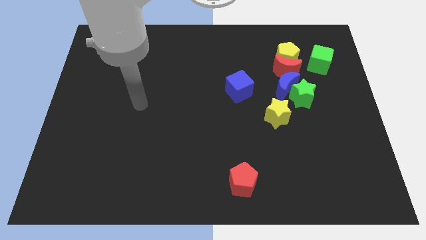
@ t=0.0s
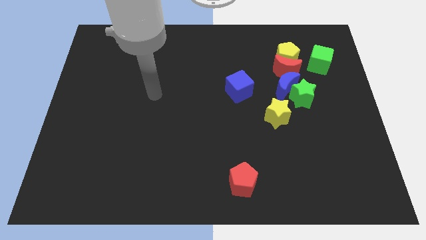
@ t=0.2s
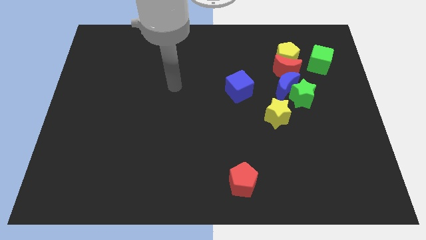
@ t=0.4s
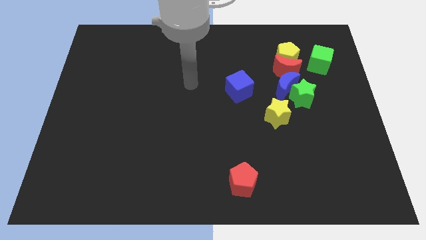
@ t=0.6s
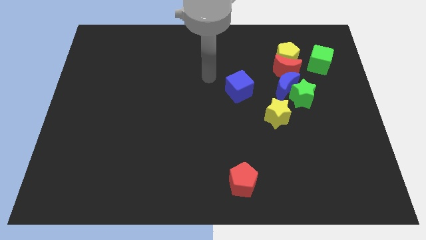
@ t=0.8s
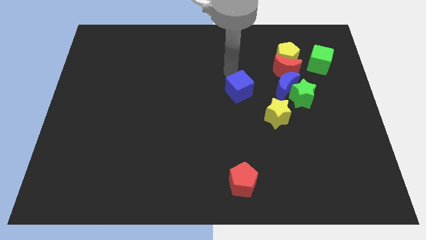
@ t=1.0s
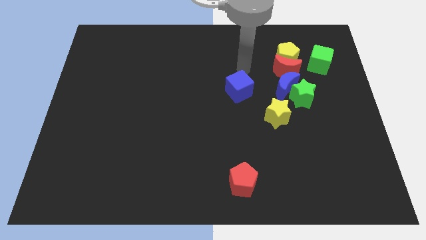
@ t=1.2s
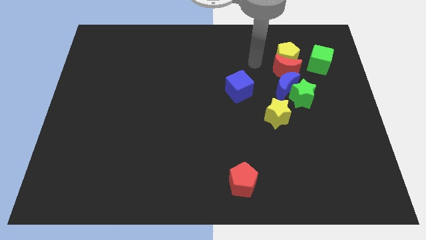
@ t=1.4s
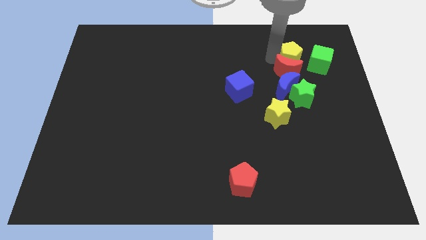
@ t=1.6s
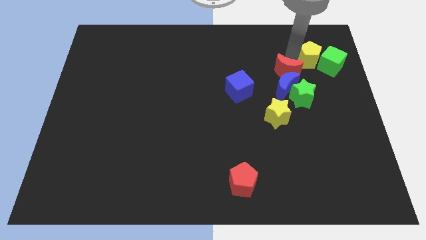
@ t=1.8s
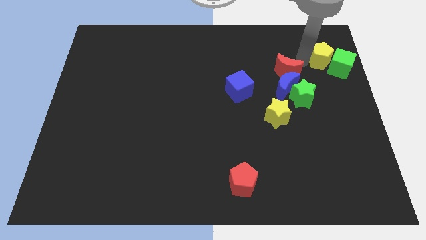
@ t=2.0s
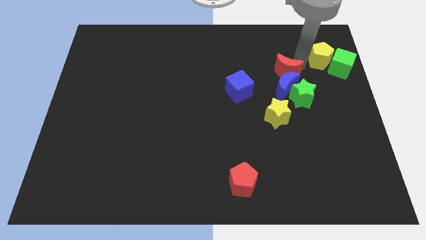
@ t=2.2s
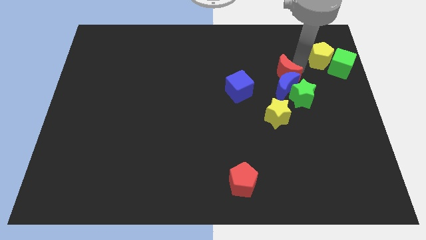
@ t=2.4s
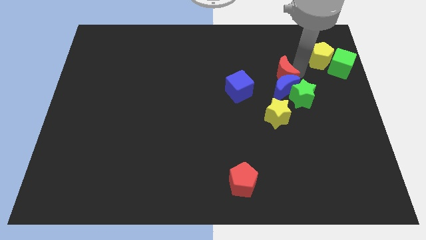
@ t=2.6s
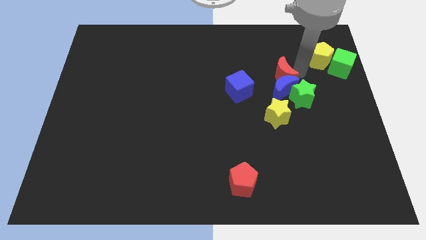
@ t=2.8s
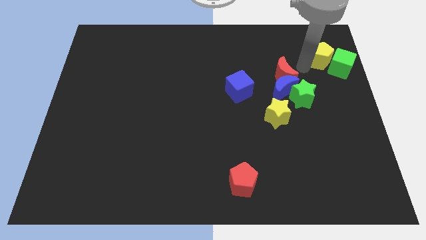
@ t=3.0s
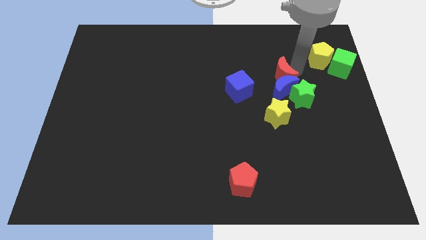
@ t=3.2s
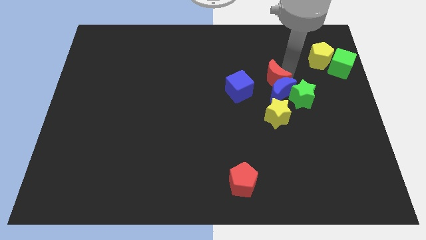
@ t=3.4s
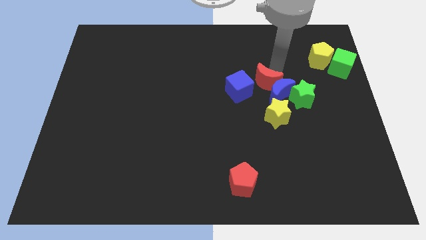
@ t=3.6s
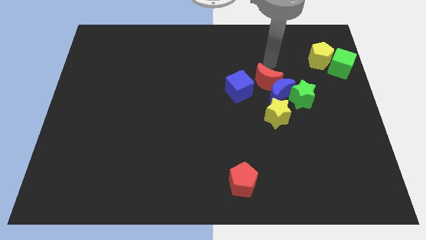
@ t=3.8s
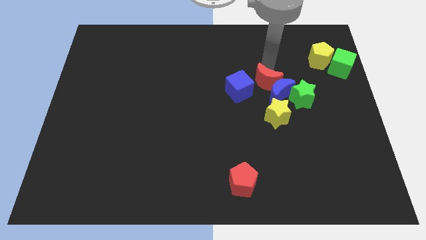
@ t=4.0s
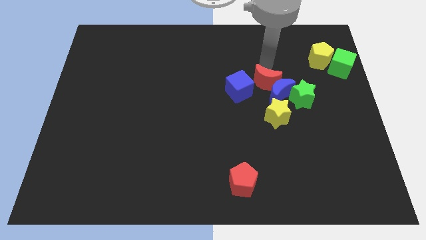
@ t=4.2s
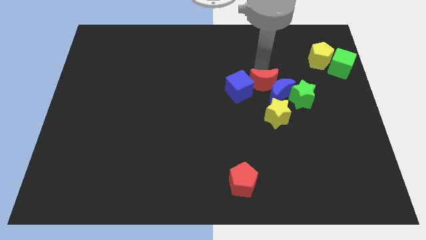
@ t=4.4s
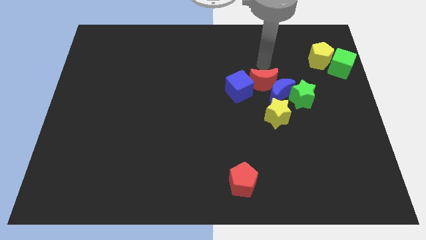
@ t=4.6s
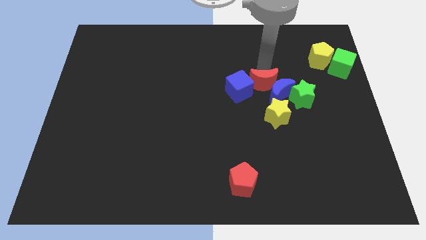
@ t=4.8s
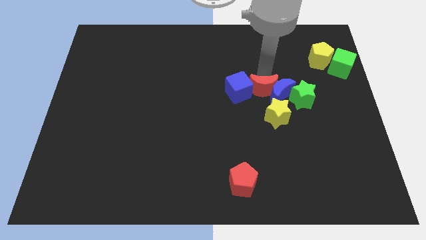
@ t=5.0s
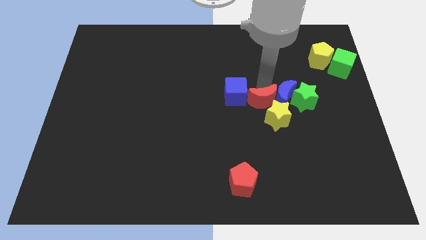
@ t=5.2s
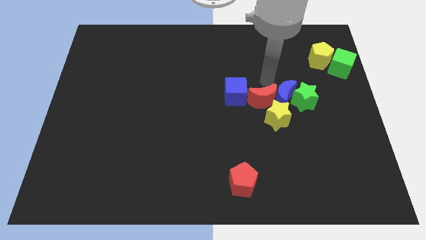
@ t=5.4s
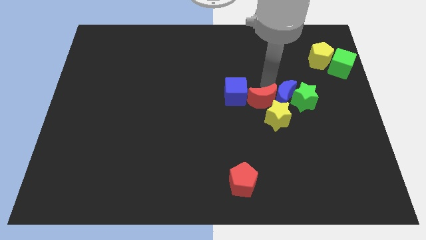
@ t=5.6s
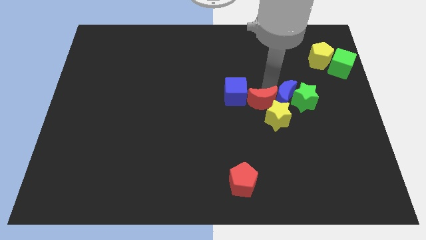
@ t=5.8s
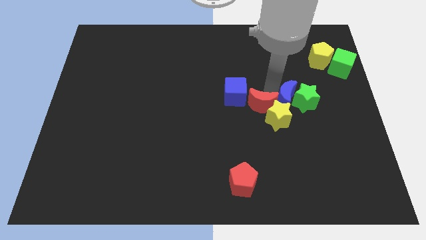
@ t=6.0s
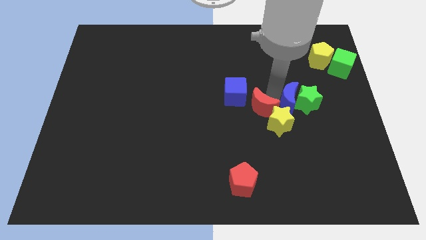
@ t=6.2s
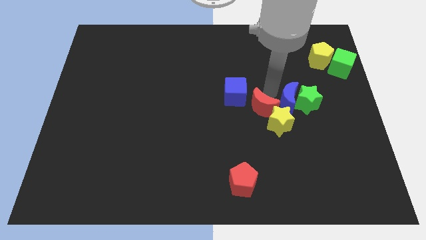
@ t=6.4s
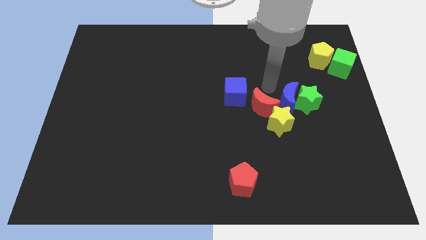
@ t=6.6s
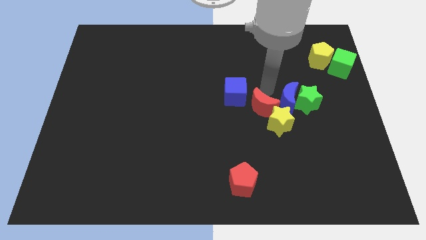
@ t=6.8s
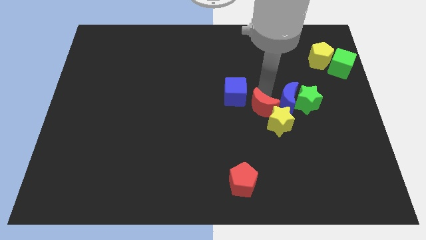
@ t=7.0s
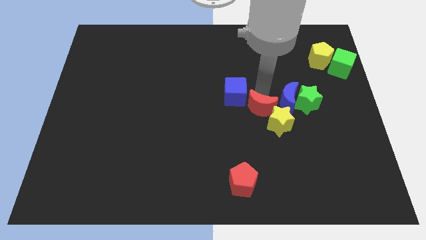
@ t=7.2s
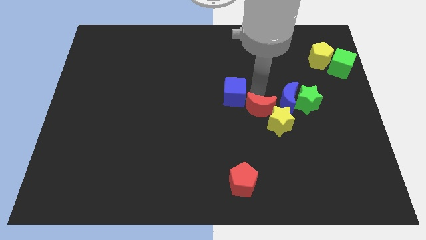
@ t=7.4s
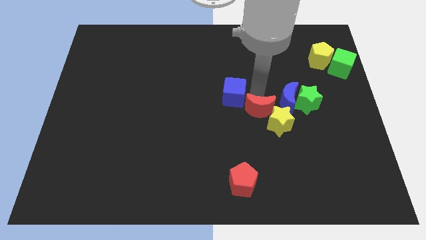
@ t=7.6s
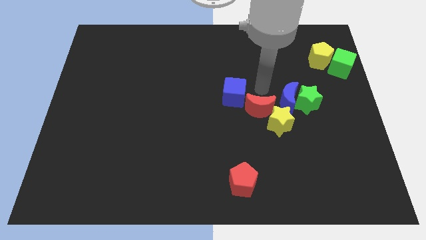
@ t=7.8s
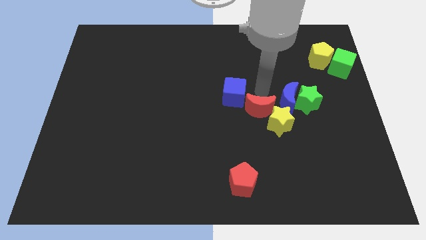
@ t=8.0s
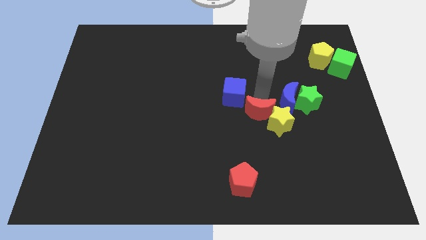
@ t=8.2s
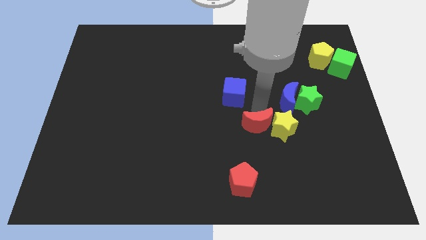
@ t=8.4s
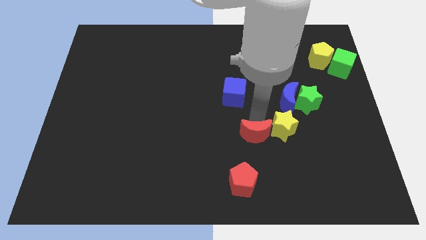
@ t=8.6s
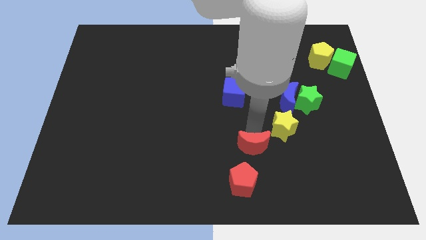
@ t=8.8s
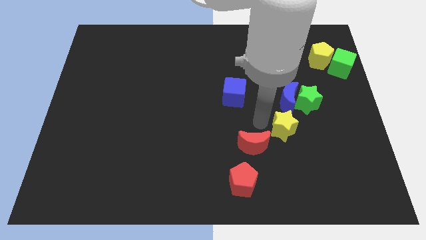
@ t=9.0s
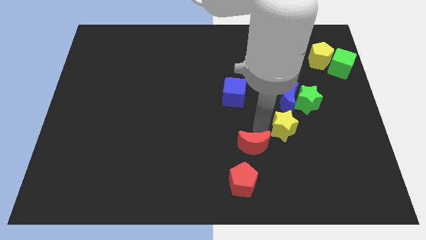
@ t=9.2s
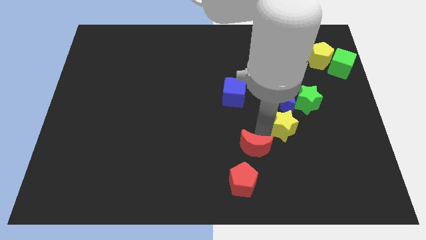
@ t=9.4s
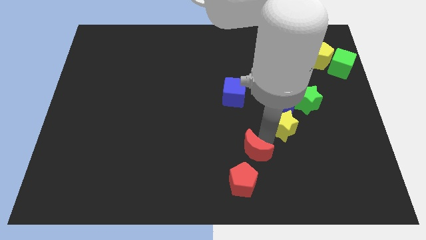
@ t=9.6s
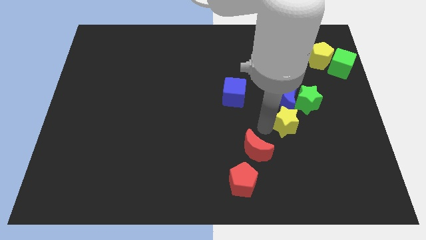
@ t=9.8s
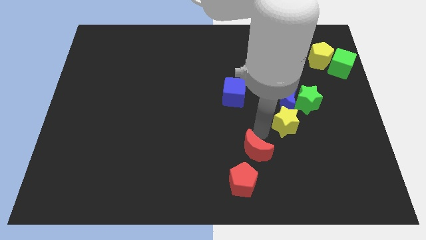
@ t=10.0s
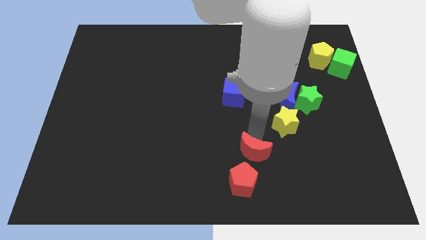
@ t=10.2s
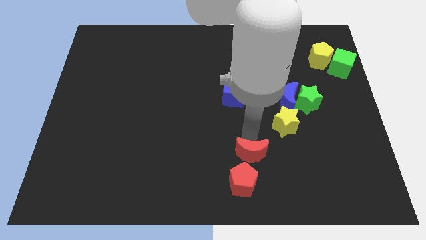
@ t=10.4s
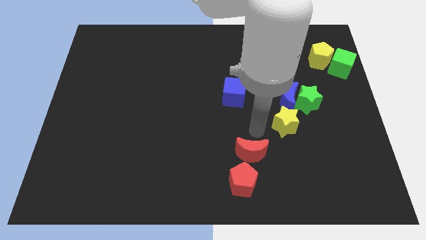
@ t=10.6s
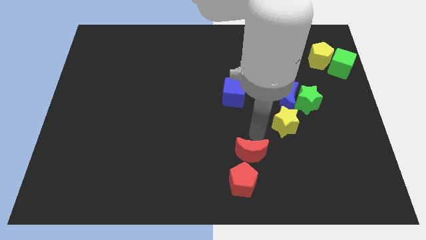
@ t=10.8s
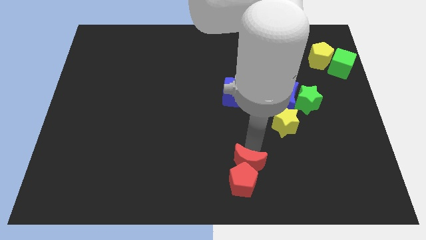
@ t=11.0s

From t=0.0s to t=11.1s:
push the red moon next to the red pentagon

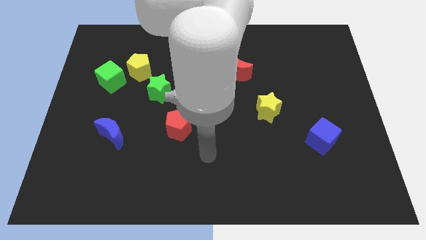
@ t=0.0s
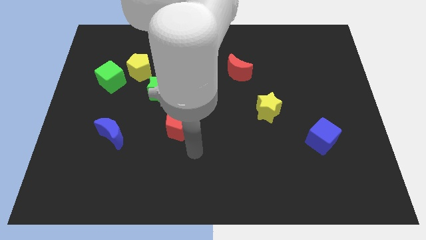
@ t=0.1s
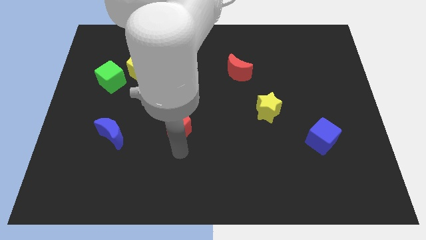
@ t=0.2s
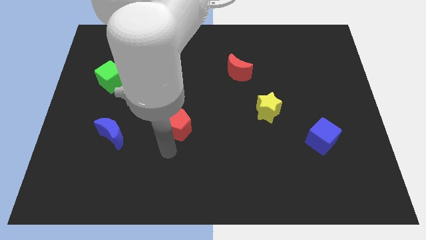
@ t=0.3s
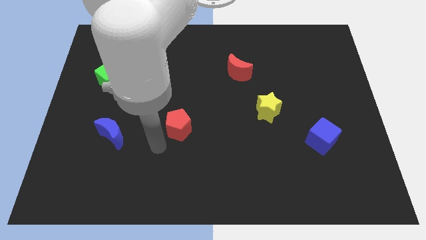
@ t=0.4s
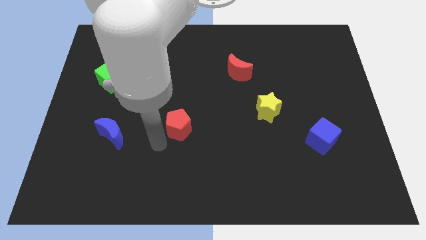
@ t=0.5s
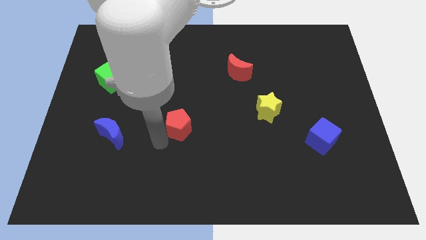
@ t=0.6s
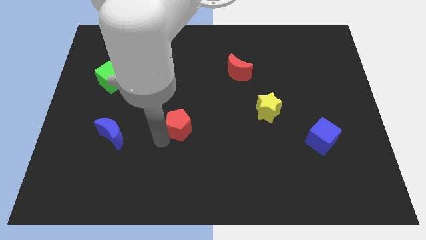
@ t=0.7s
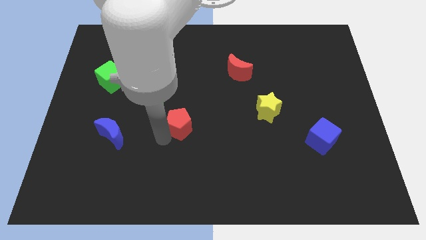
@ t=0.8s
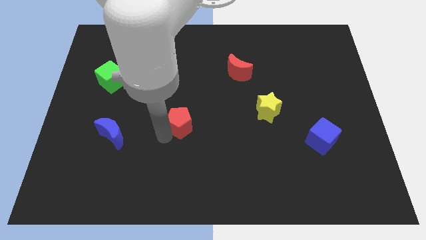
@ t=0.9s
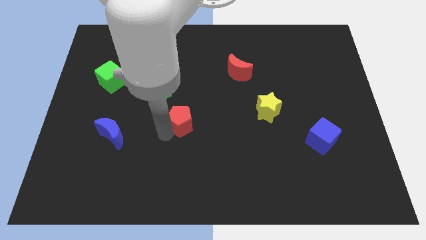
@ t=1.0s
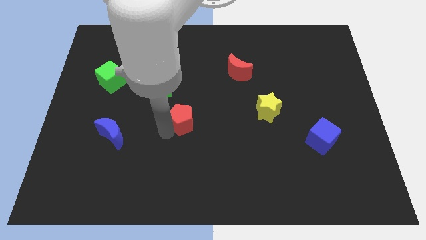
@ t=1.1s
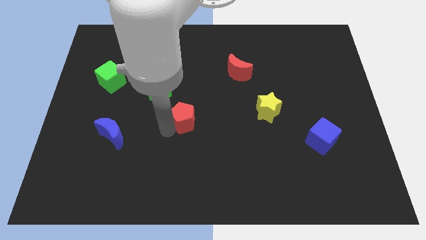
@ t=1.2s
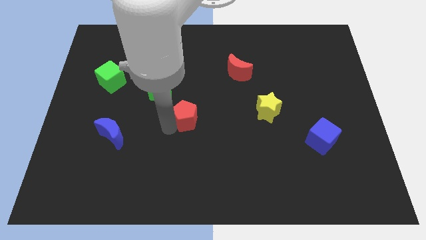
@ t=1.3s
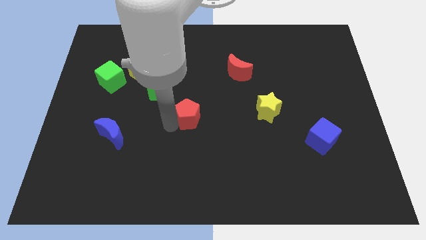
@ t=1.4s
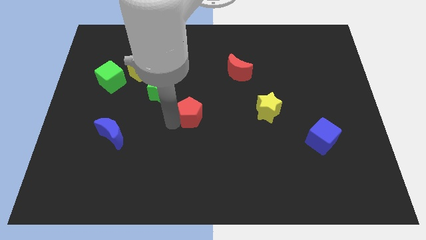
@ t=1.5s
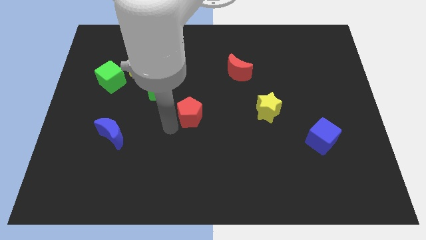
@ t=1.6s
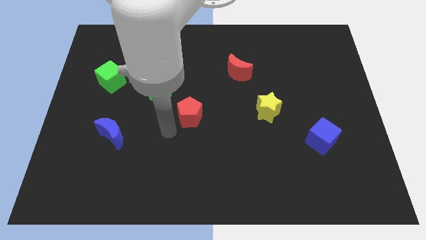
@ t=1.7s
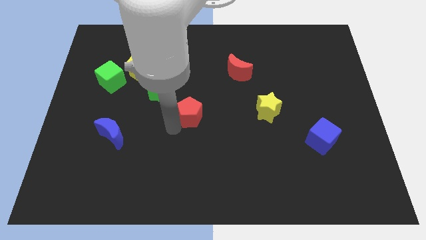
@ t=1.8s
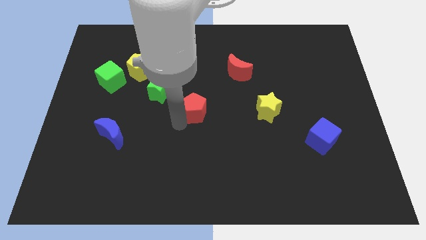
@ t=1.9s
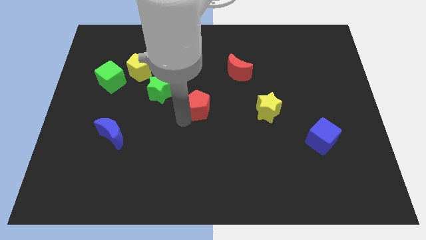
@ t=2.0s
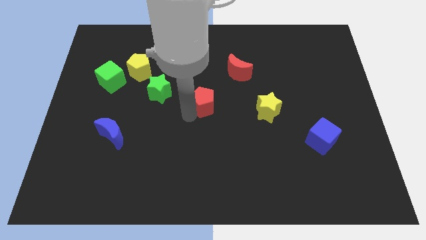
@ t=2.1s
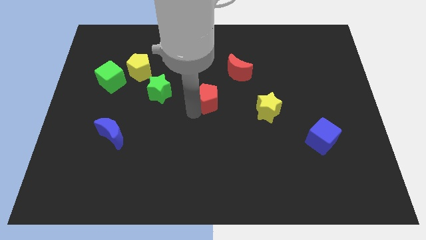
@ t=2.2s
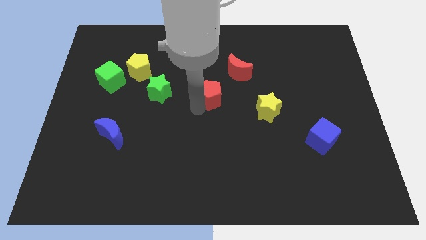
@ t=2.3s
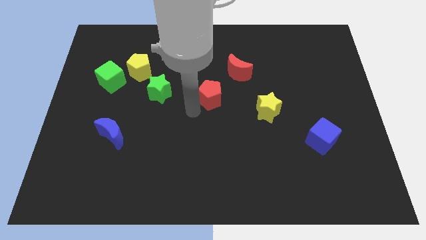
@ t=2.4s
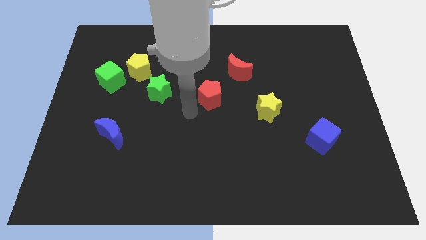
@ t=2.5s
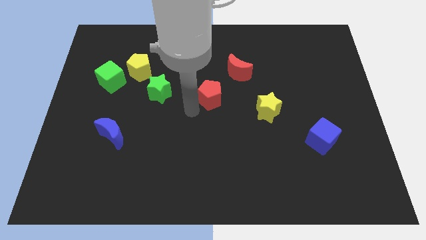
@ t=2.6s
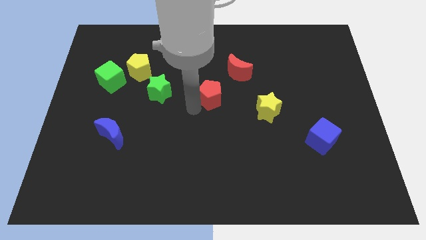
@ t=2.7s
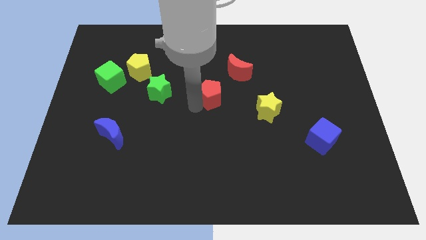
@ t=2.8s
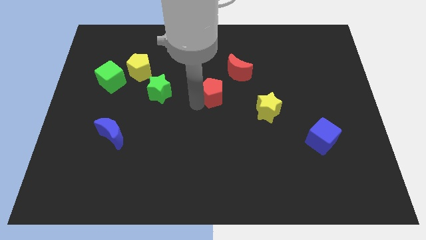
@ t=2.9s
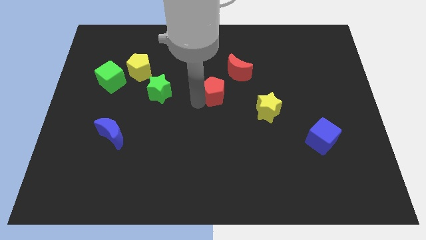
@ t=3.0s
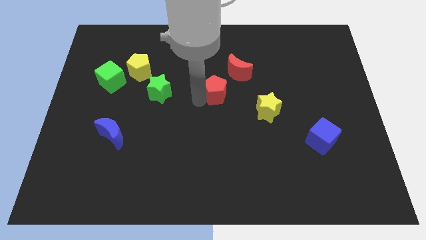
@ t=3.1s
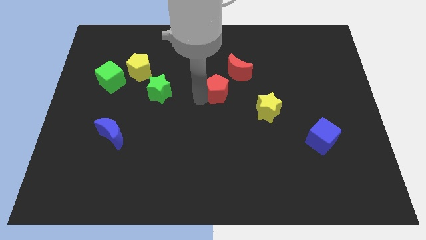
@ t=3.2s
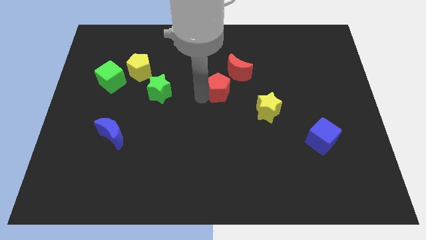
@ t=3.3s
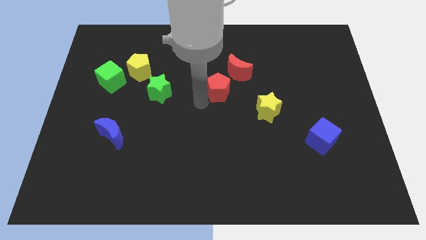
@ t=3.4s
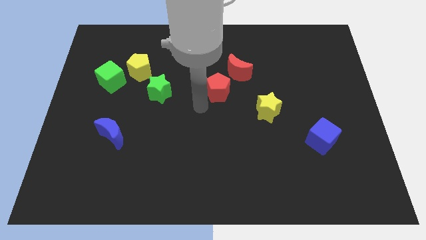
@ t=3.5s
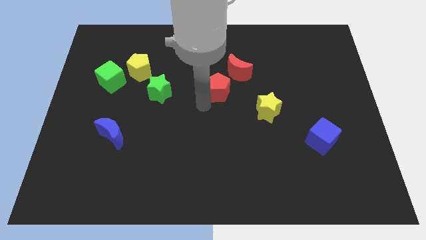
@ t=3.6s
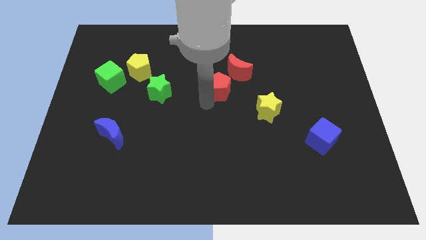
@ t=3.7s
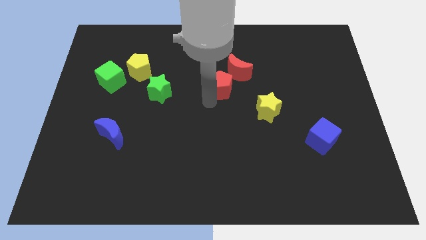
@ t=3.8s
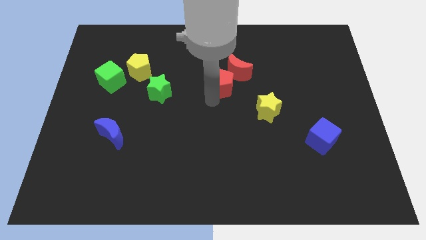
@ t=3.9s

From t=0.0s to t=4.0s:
slide the red pentagon towards the red moon
